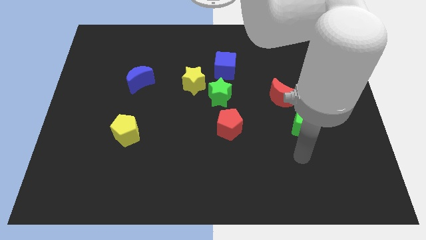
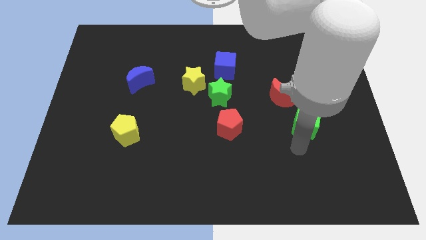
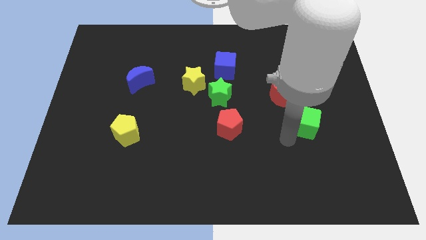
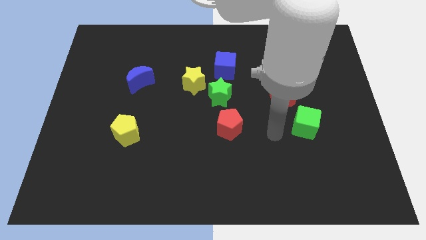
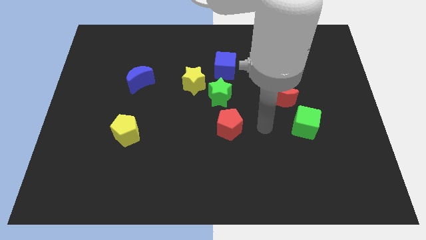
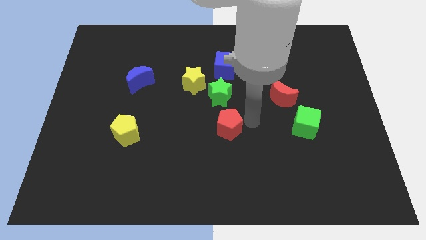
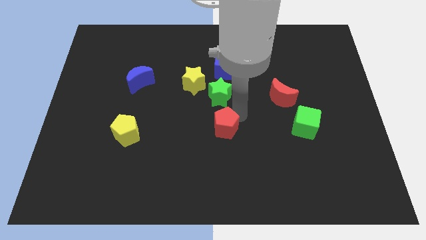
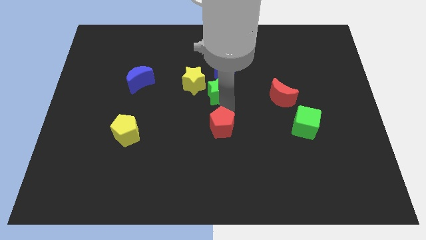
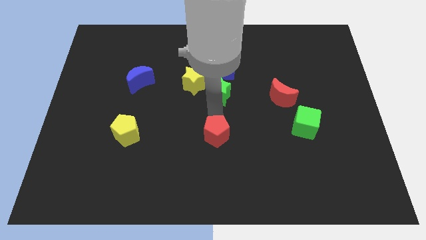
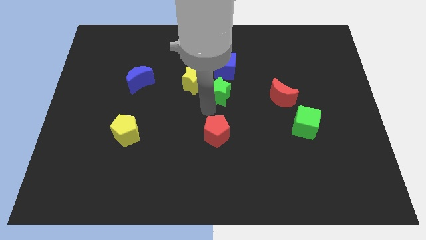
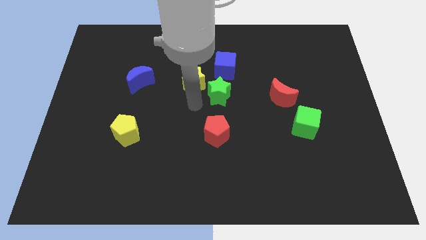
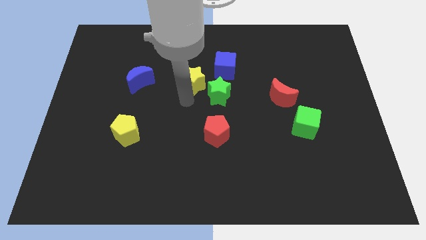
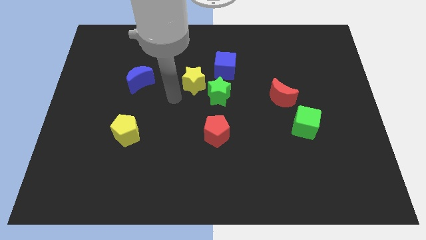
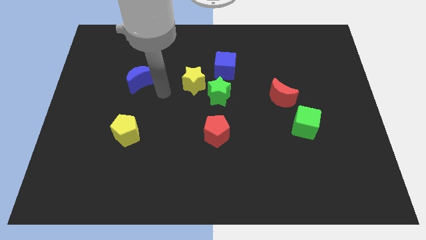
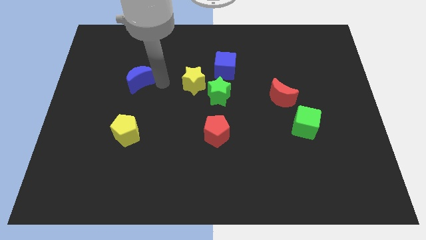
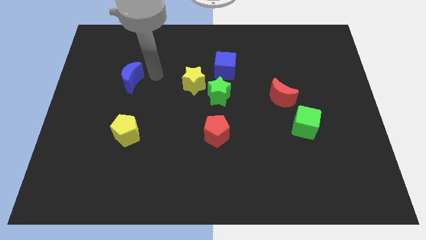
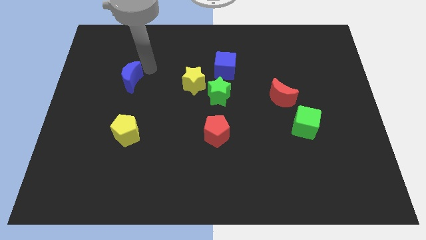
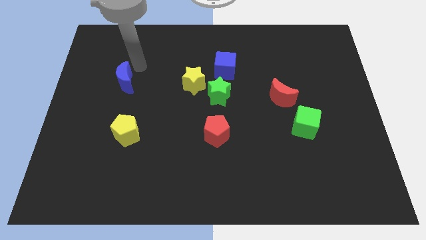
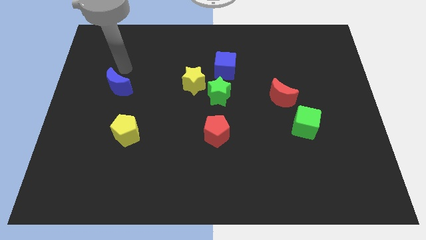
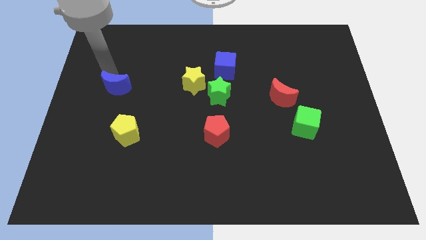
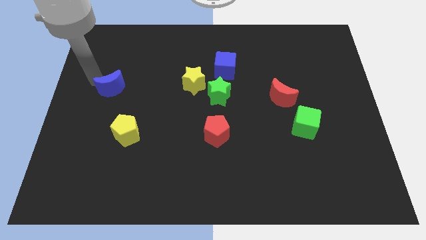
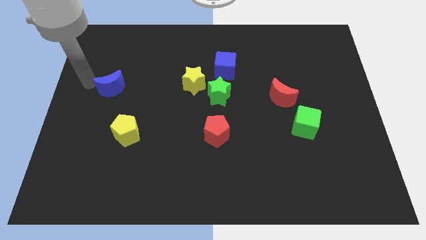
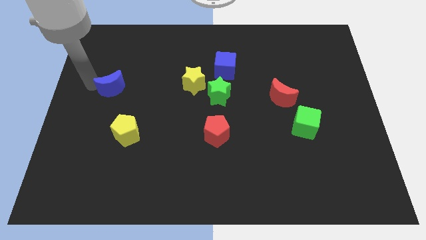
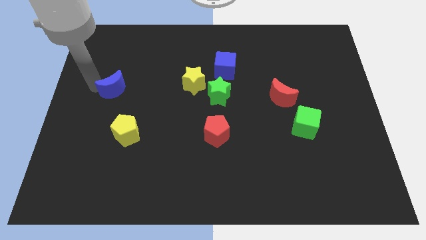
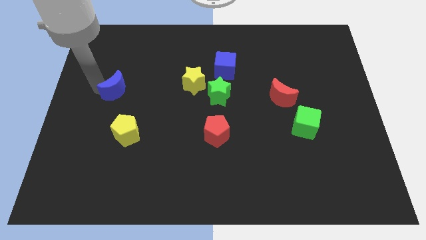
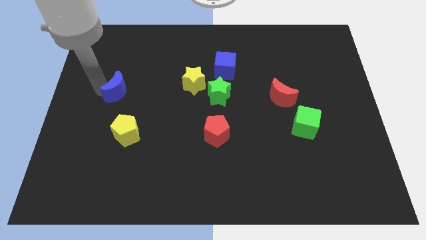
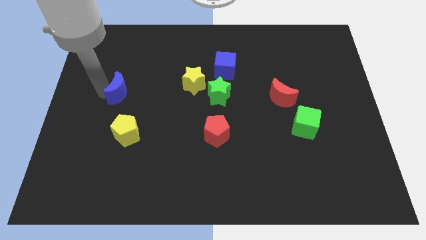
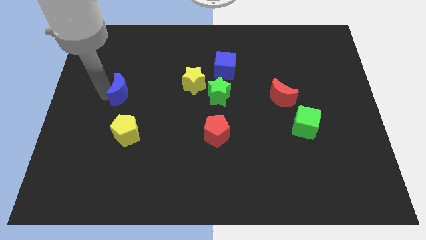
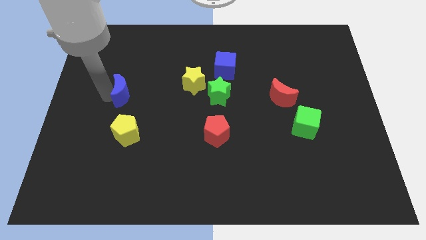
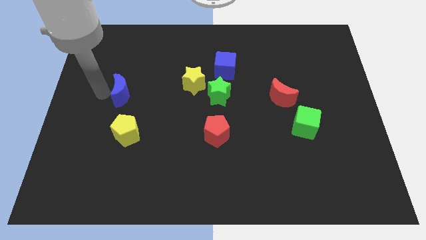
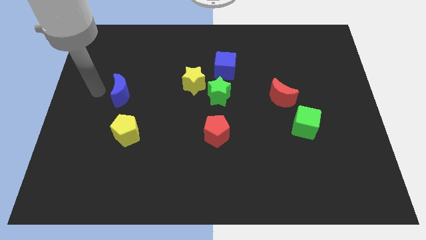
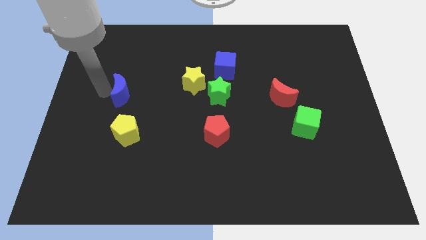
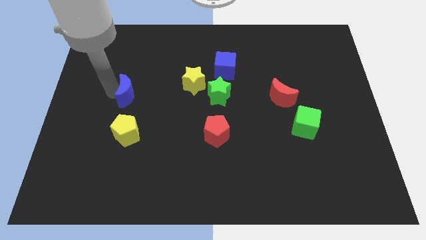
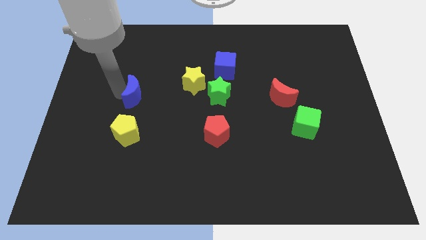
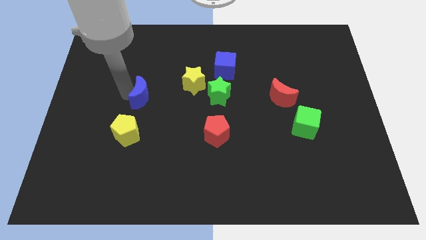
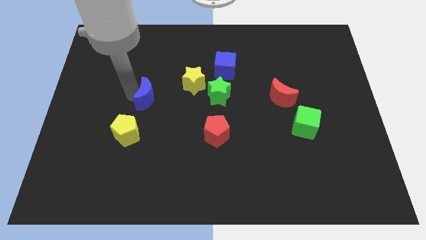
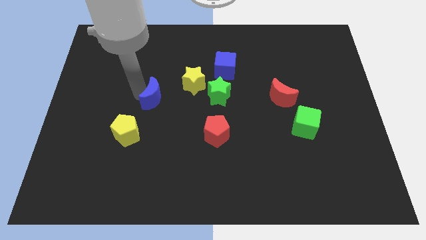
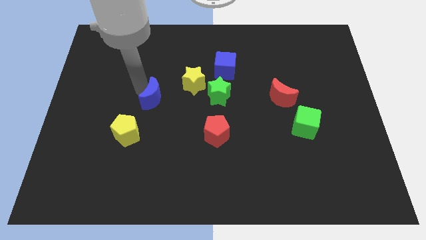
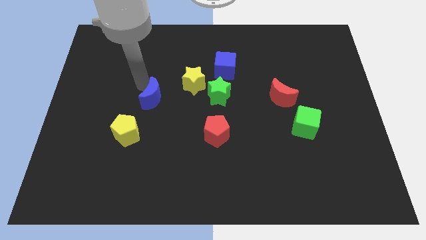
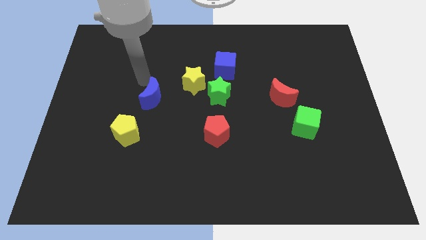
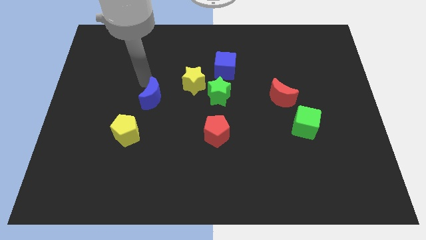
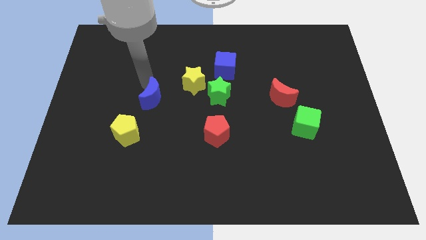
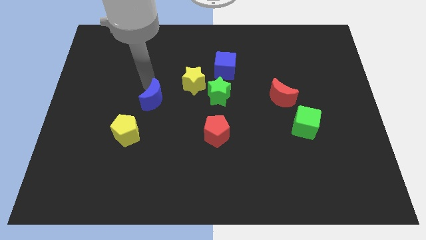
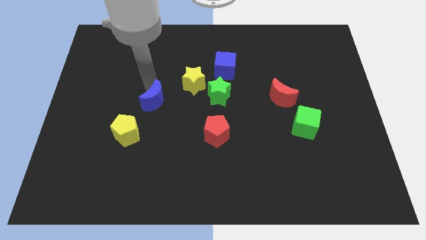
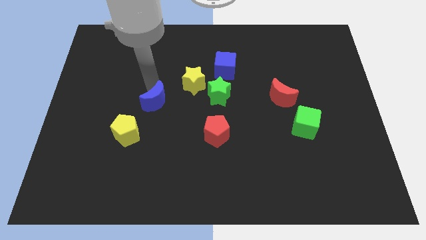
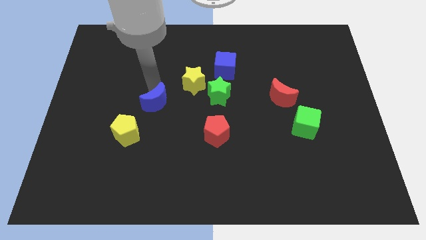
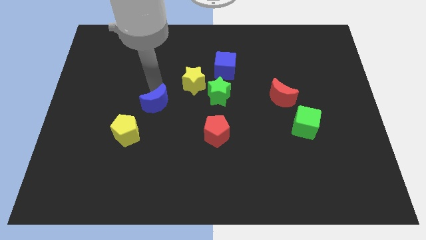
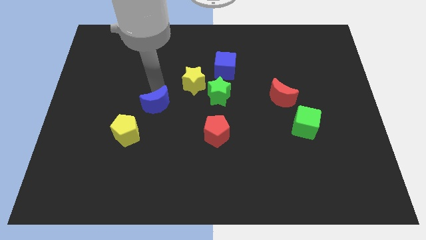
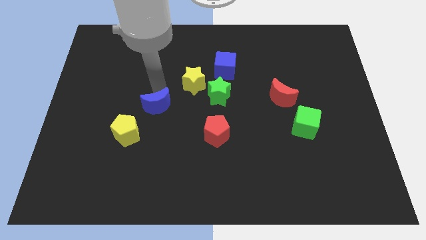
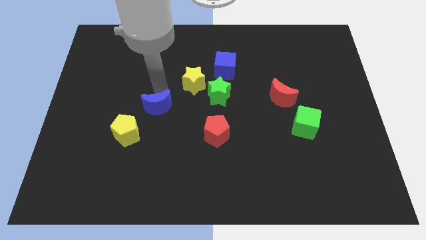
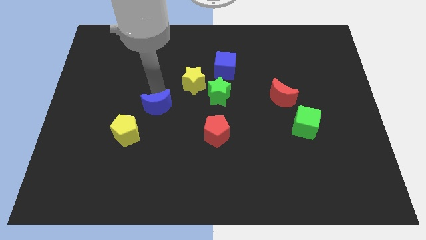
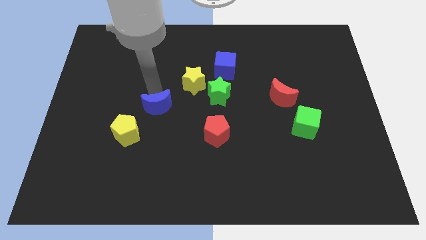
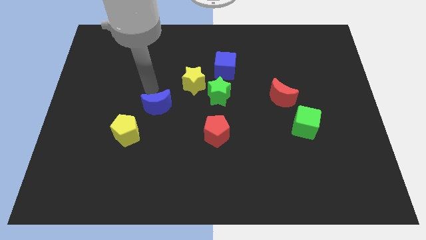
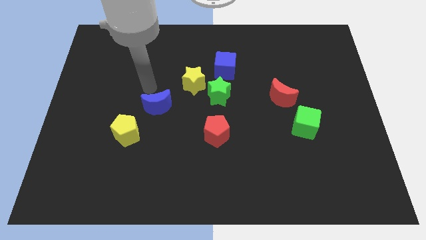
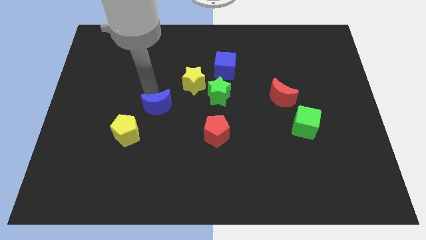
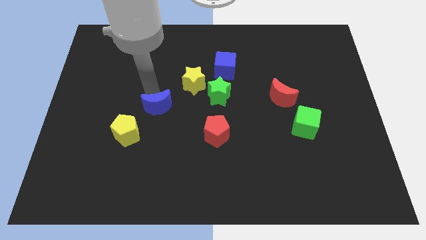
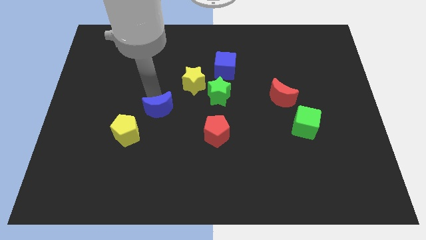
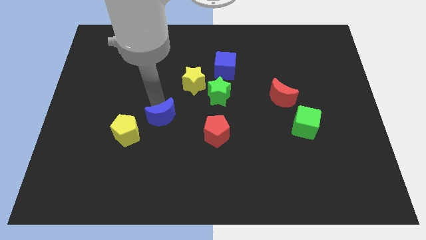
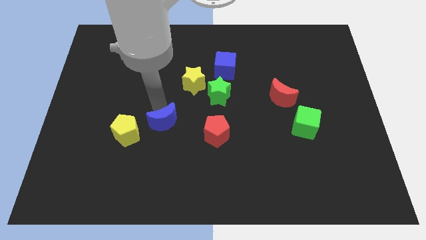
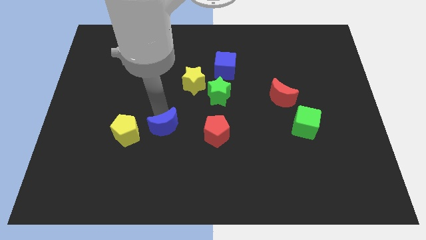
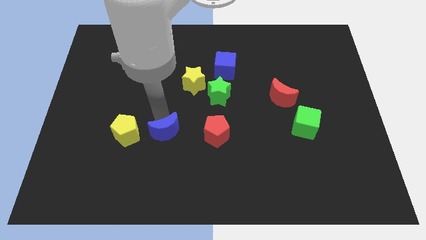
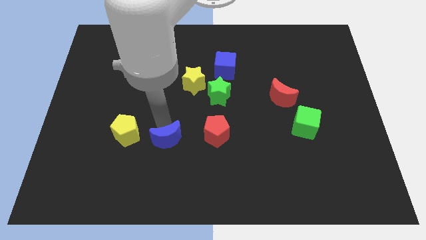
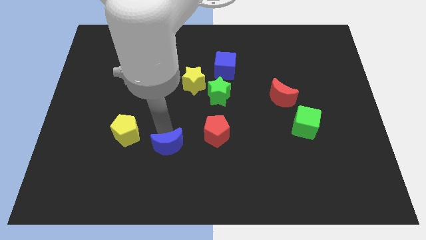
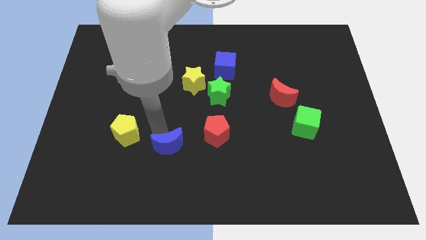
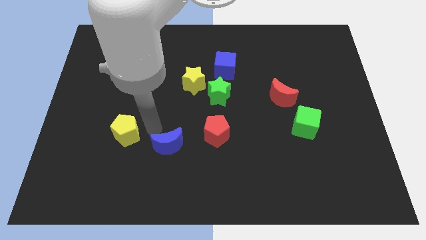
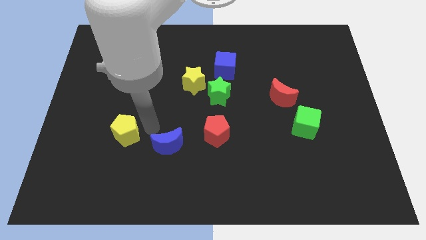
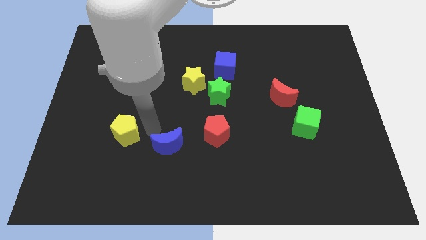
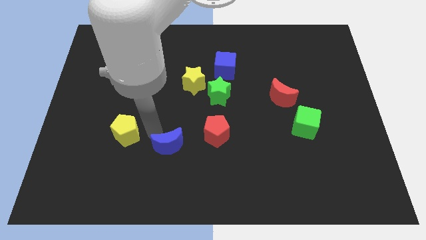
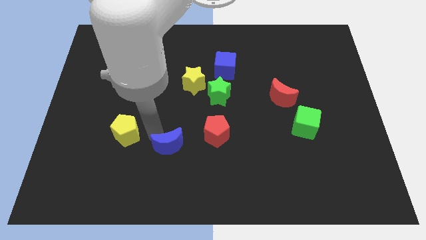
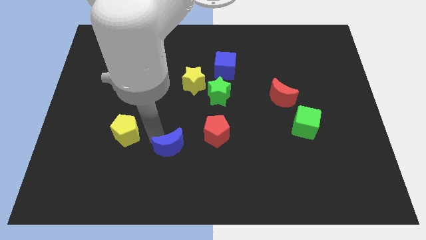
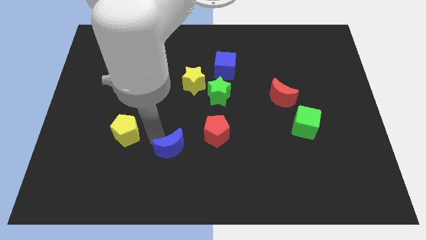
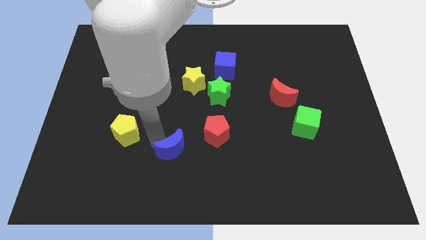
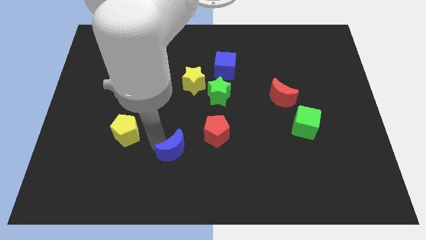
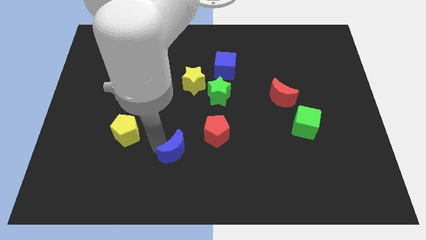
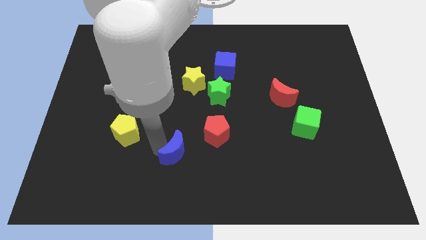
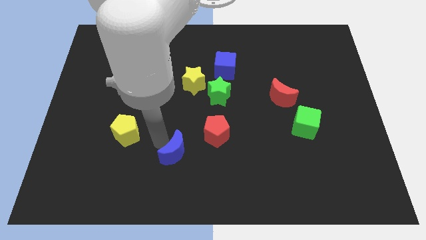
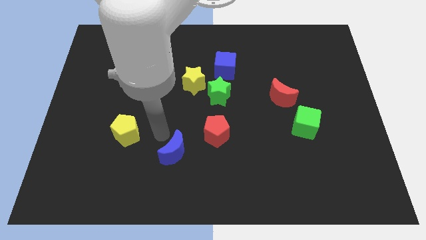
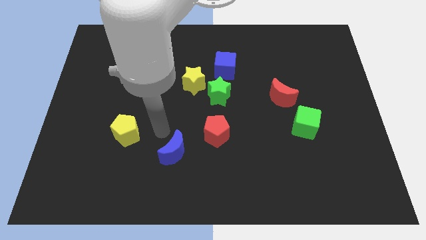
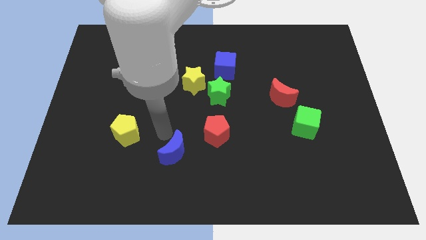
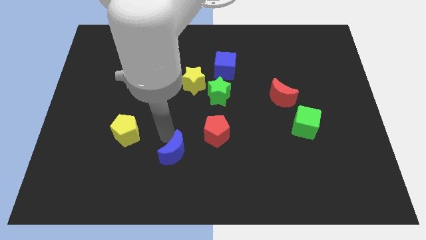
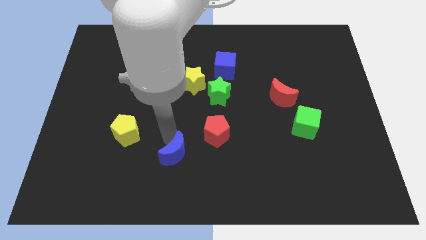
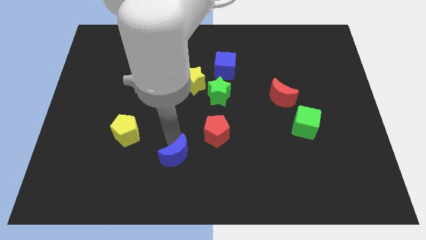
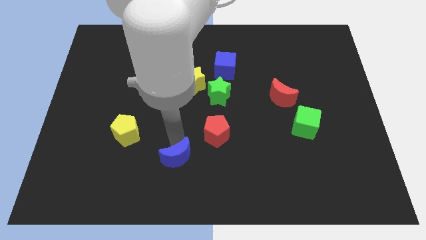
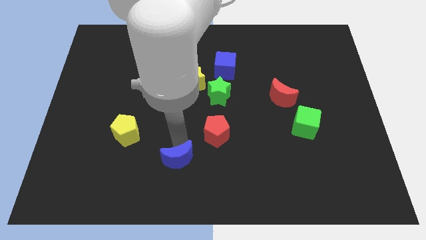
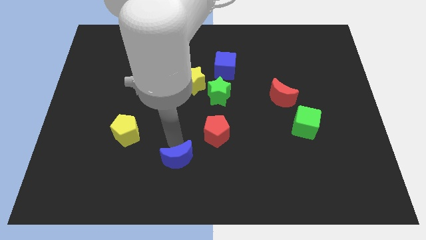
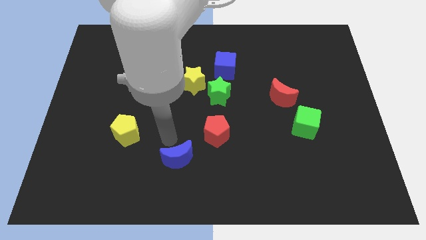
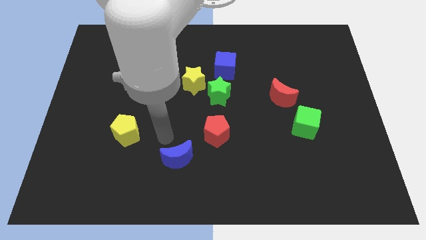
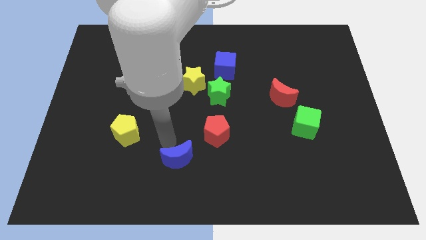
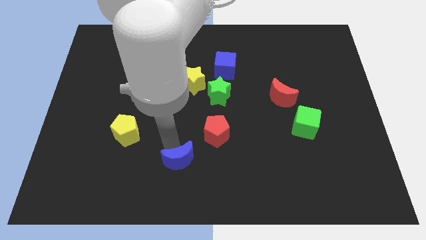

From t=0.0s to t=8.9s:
slide the blue moon to the bottom side
